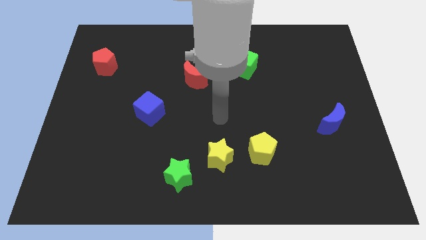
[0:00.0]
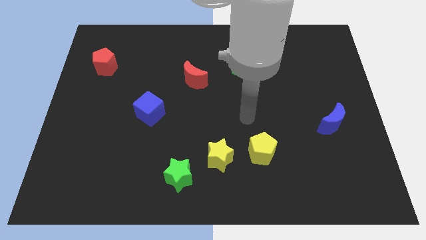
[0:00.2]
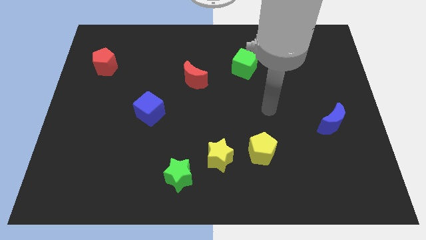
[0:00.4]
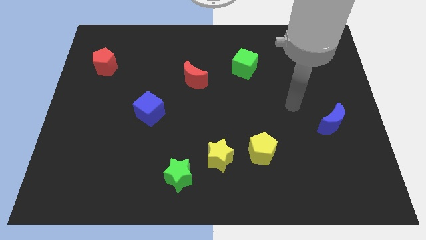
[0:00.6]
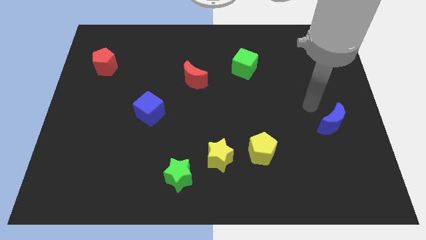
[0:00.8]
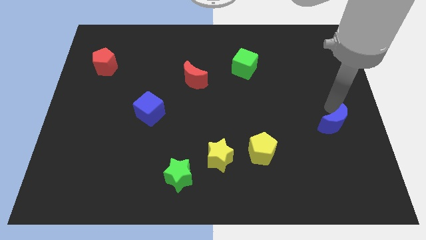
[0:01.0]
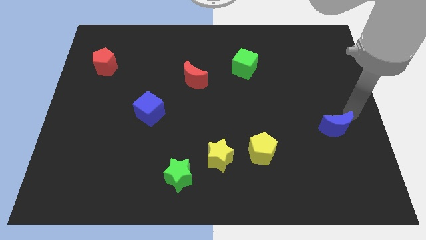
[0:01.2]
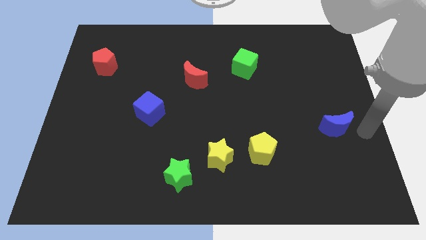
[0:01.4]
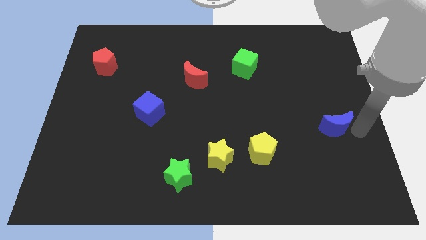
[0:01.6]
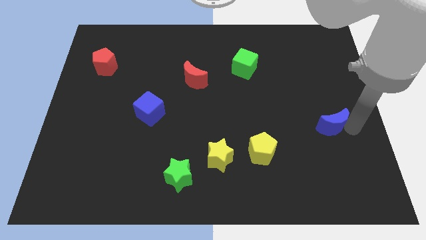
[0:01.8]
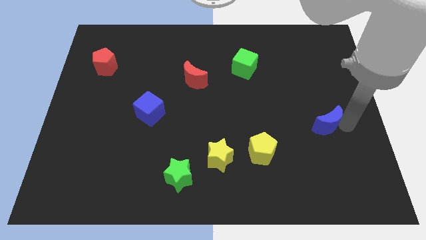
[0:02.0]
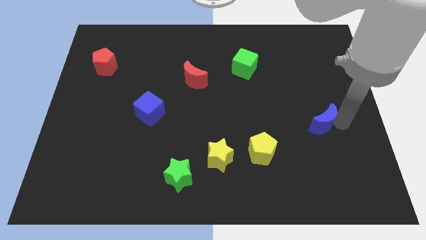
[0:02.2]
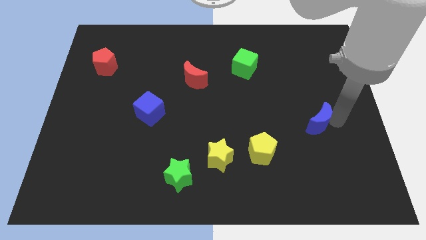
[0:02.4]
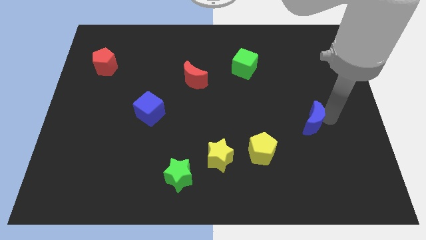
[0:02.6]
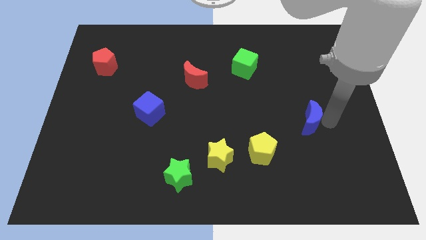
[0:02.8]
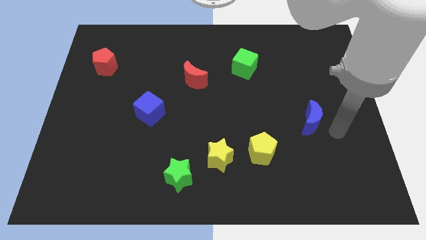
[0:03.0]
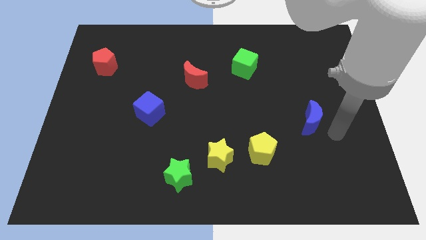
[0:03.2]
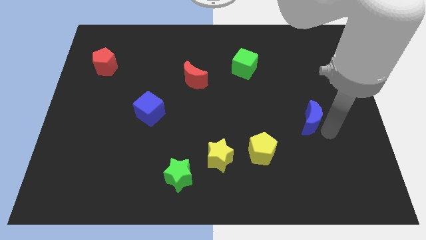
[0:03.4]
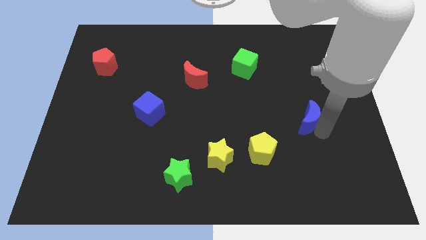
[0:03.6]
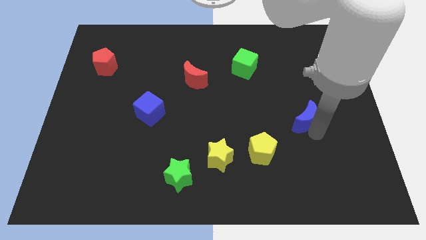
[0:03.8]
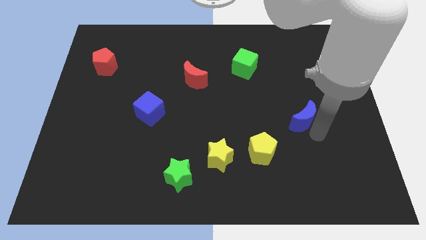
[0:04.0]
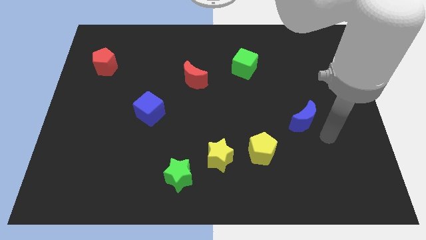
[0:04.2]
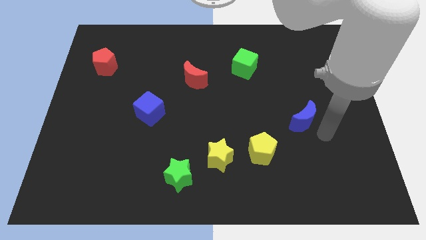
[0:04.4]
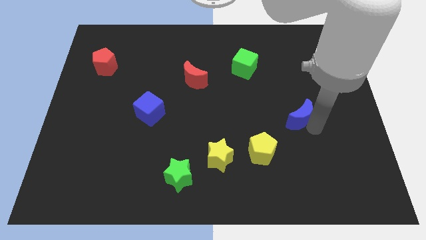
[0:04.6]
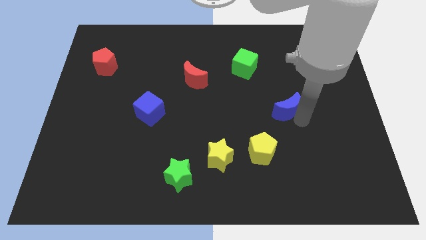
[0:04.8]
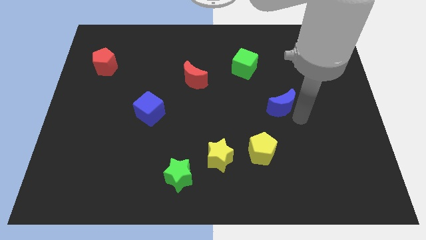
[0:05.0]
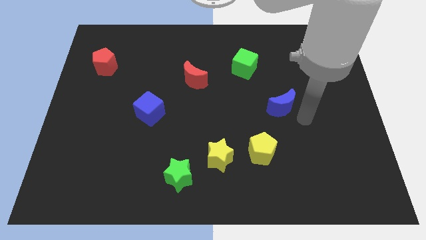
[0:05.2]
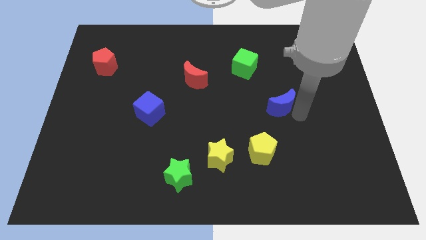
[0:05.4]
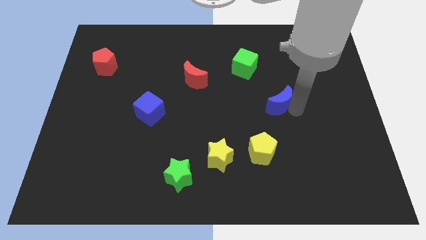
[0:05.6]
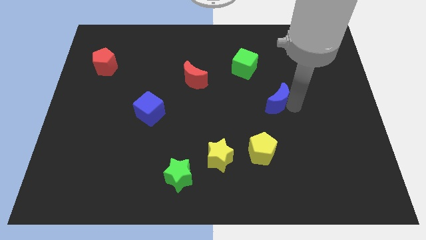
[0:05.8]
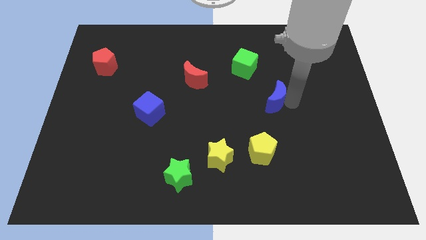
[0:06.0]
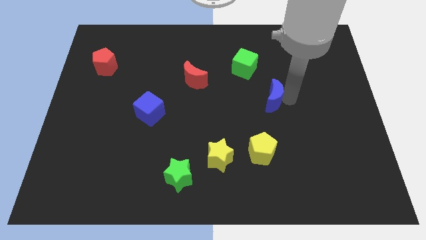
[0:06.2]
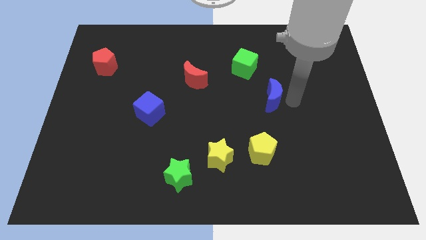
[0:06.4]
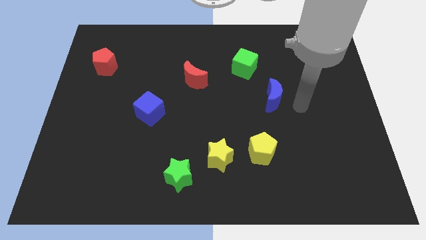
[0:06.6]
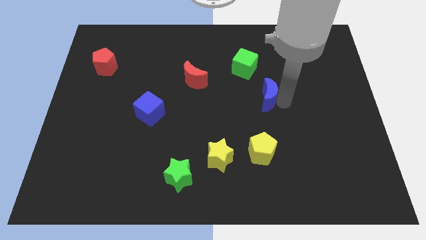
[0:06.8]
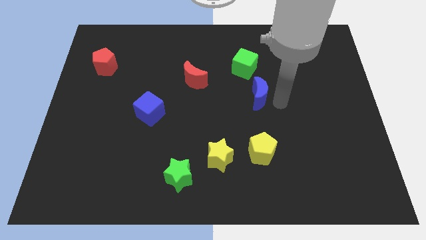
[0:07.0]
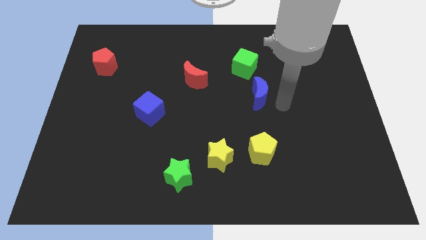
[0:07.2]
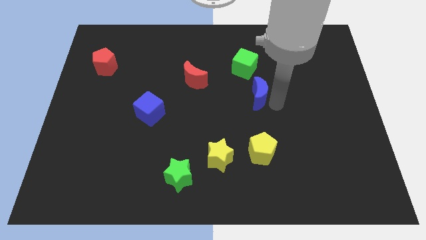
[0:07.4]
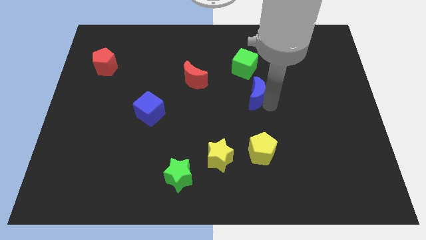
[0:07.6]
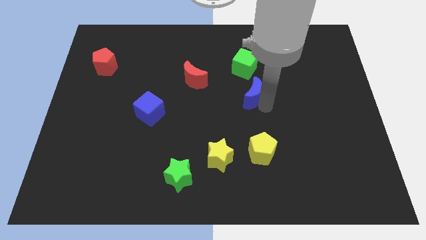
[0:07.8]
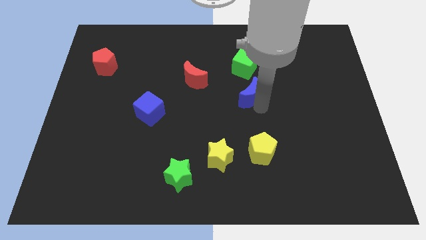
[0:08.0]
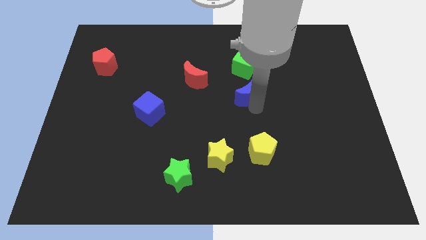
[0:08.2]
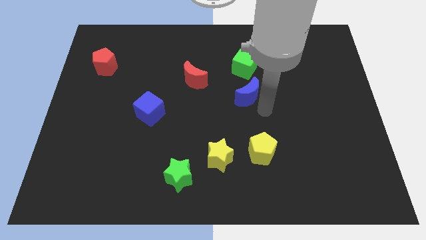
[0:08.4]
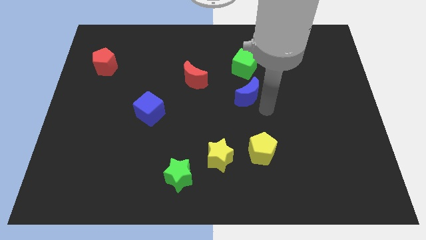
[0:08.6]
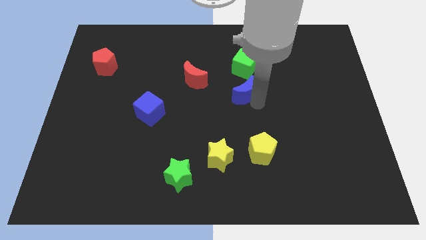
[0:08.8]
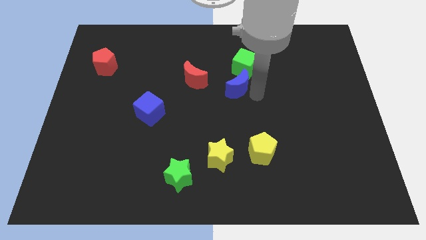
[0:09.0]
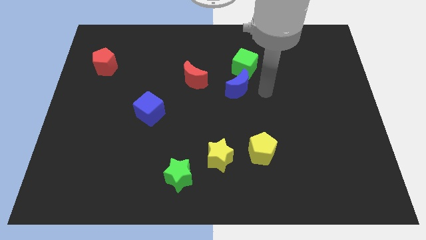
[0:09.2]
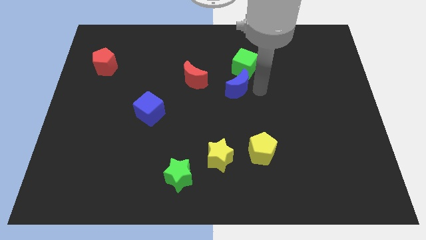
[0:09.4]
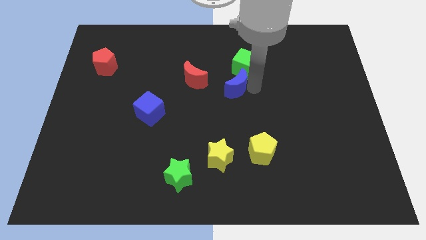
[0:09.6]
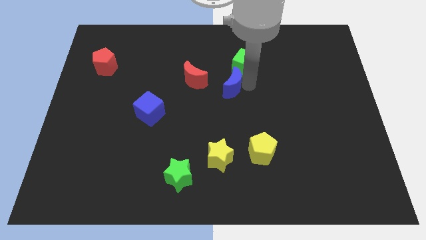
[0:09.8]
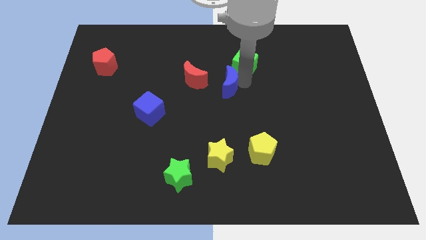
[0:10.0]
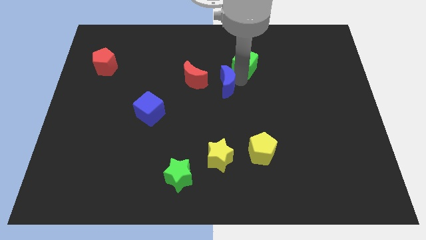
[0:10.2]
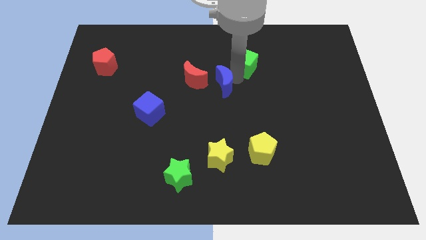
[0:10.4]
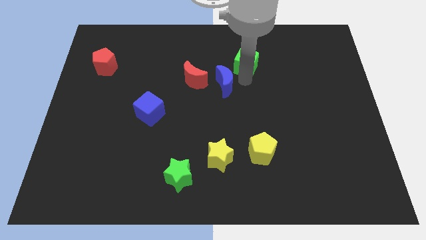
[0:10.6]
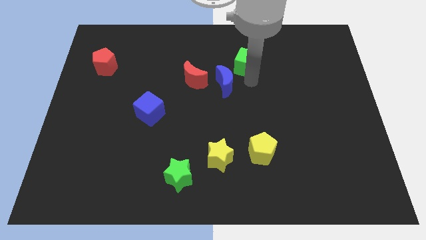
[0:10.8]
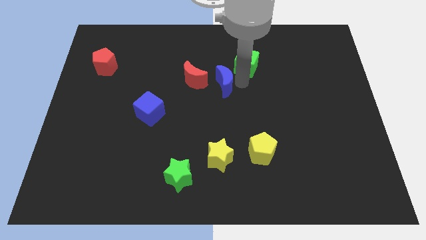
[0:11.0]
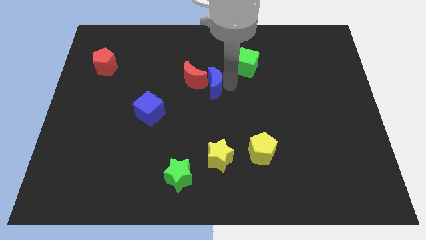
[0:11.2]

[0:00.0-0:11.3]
move the blue moon next to the red moon

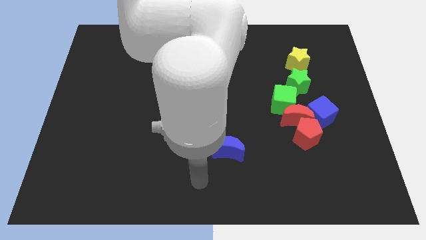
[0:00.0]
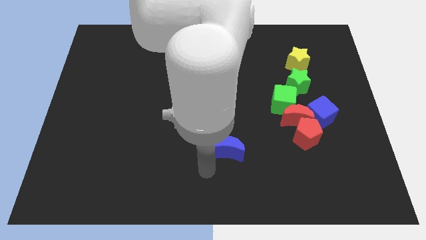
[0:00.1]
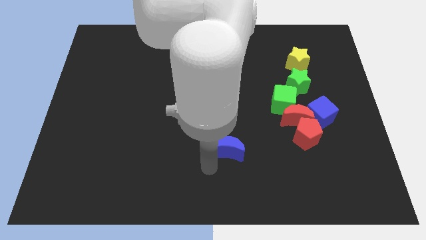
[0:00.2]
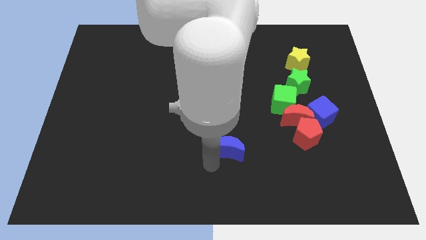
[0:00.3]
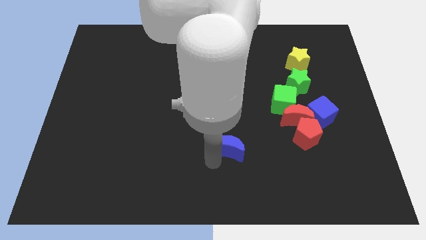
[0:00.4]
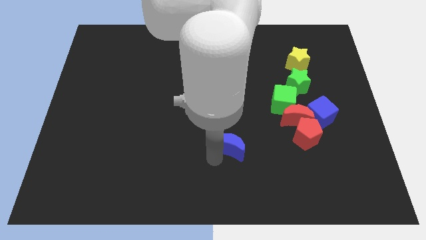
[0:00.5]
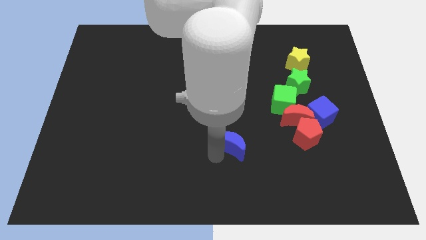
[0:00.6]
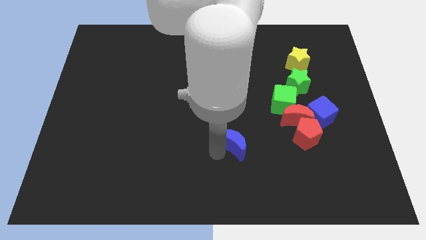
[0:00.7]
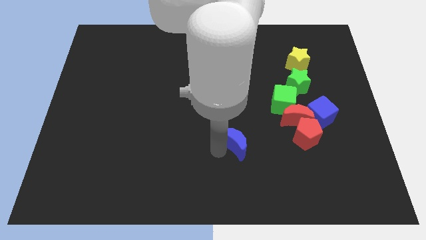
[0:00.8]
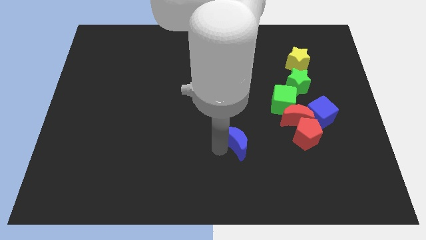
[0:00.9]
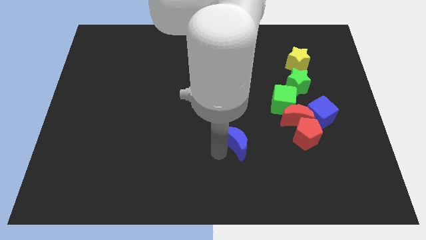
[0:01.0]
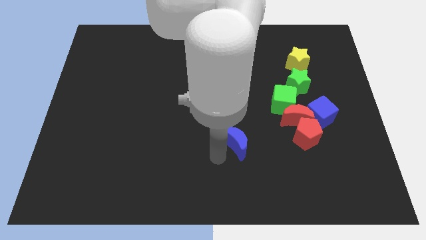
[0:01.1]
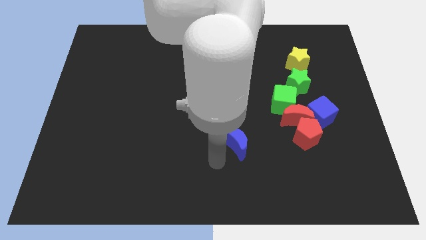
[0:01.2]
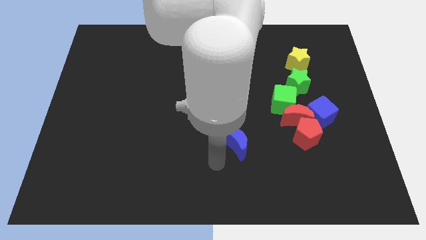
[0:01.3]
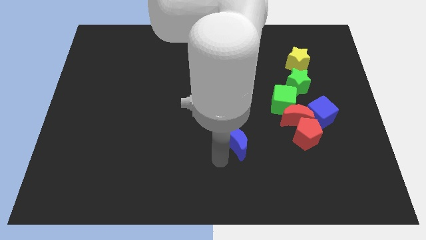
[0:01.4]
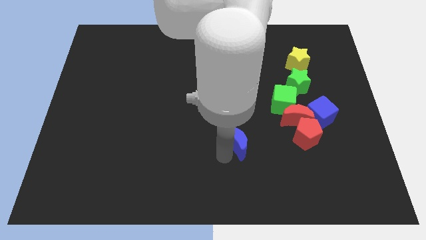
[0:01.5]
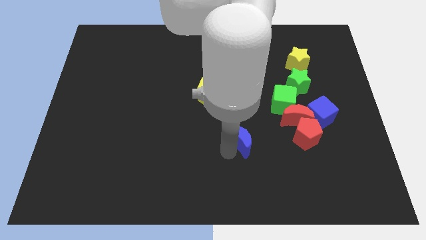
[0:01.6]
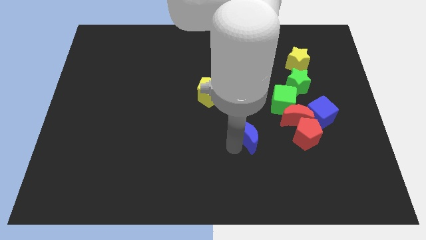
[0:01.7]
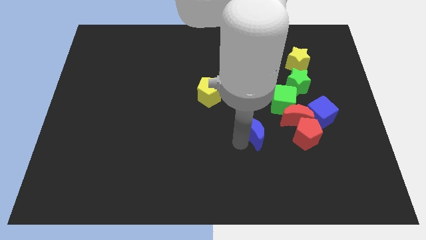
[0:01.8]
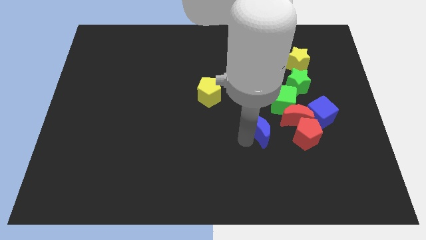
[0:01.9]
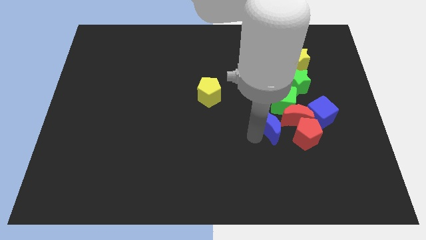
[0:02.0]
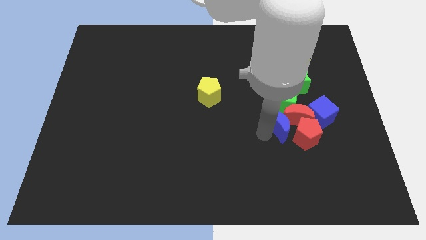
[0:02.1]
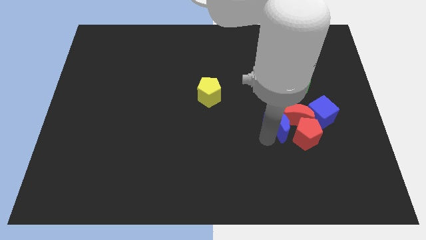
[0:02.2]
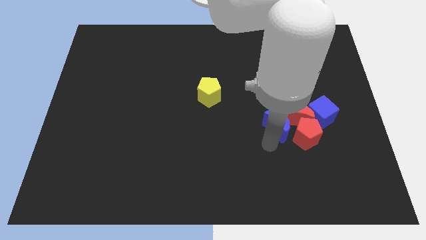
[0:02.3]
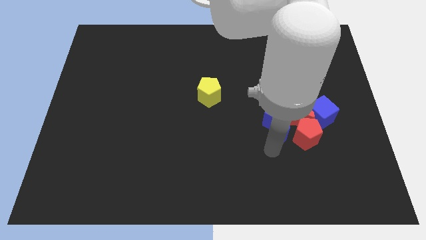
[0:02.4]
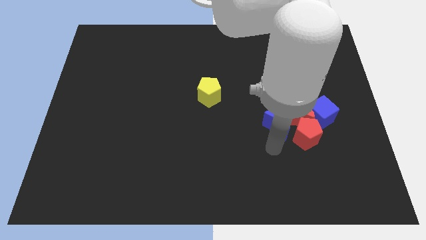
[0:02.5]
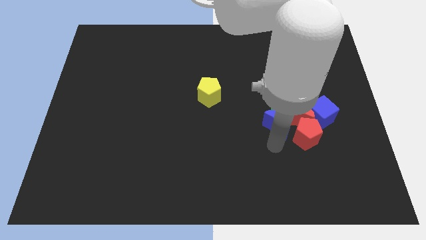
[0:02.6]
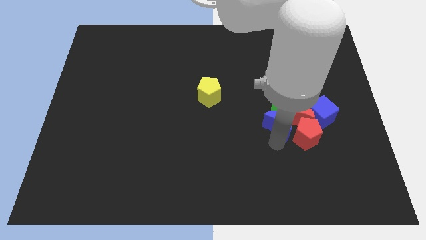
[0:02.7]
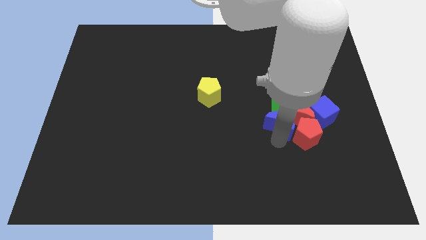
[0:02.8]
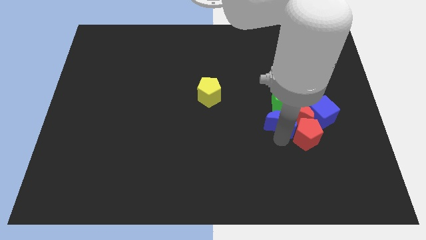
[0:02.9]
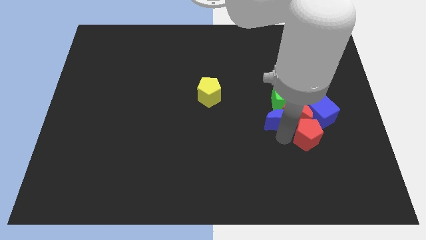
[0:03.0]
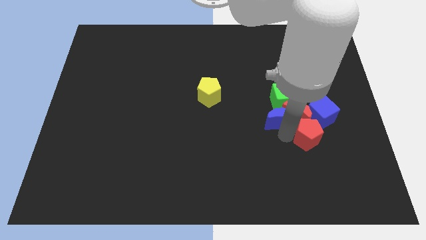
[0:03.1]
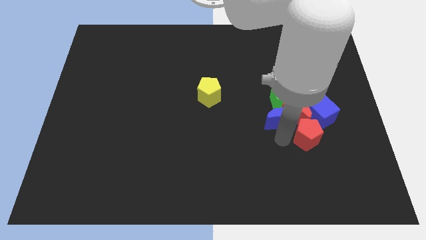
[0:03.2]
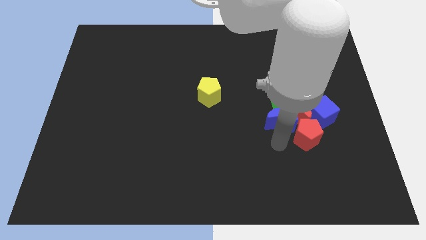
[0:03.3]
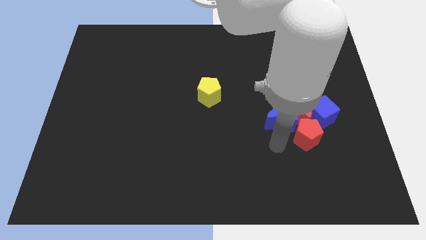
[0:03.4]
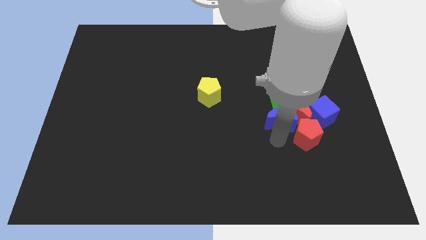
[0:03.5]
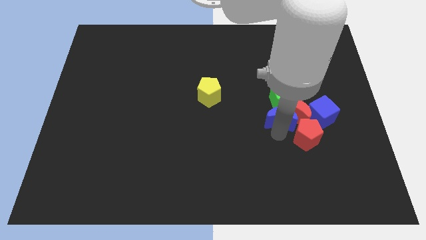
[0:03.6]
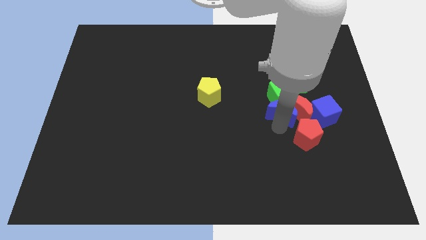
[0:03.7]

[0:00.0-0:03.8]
put the blue moon to the green cube
